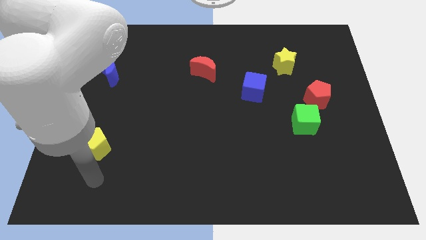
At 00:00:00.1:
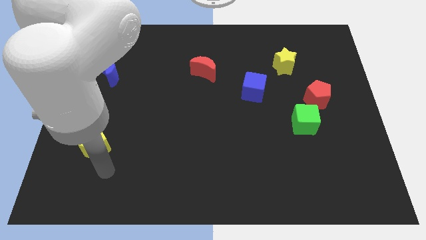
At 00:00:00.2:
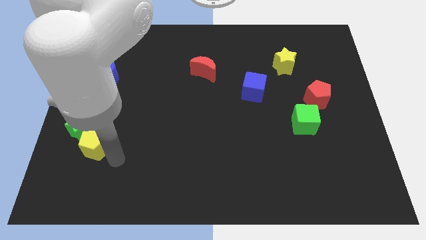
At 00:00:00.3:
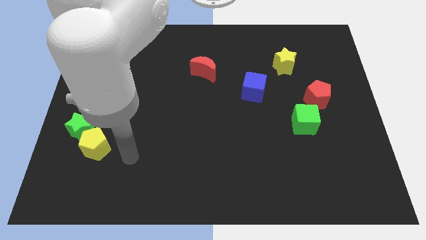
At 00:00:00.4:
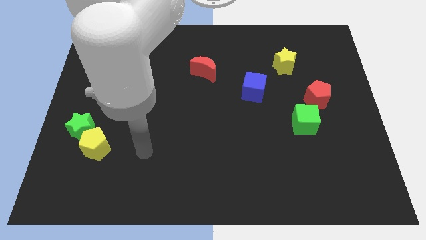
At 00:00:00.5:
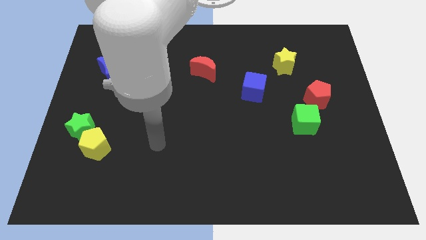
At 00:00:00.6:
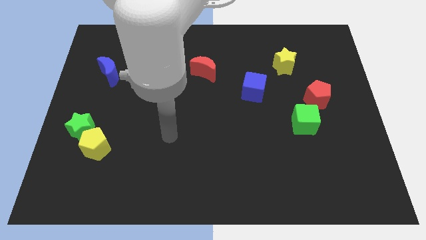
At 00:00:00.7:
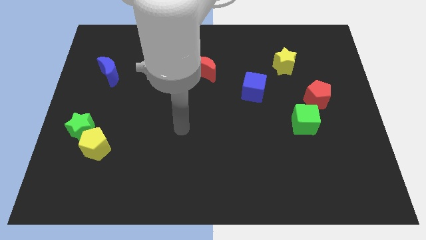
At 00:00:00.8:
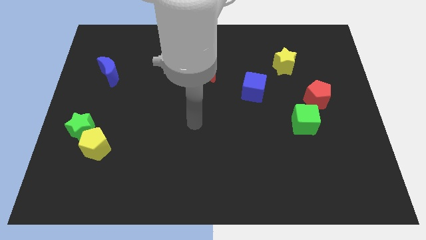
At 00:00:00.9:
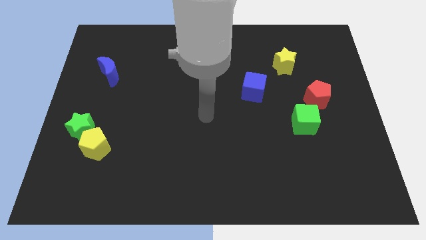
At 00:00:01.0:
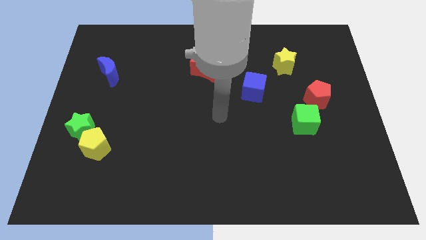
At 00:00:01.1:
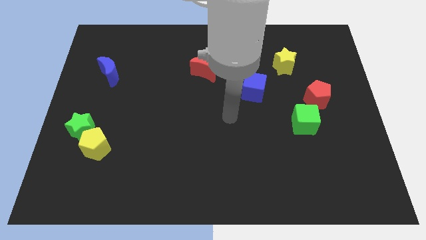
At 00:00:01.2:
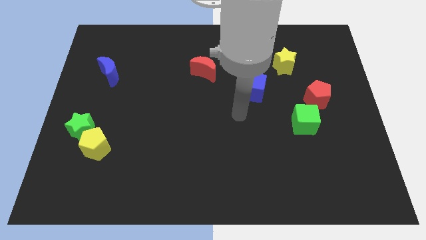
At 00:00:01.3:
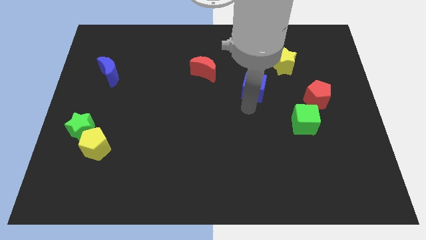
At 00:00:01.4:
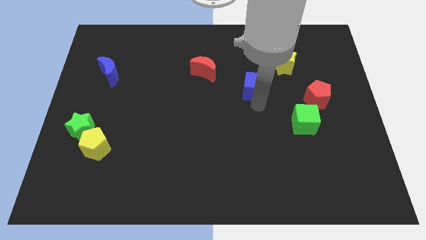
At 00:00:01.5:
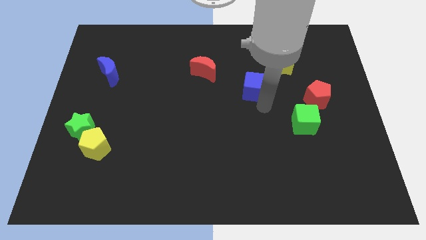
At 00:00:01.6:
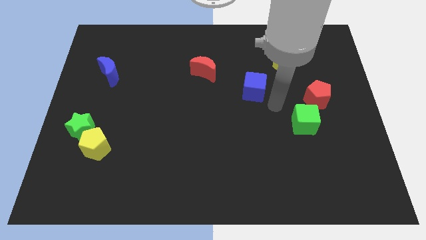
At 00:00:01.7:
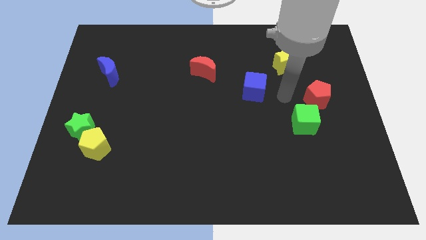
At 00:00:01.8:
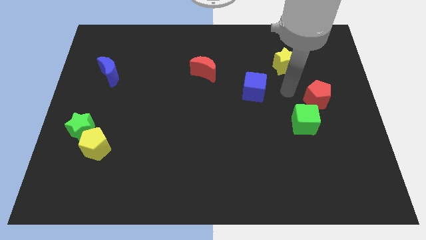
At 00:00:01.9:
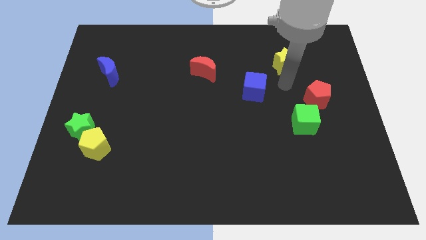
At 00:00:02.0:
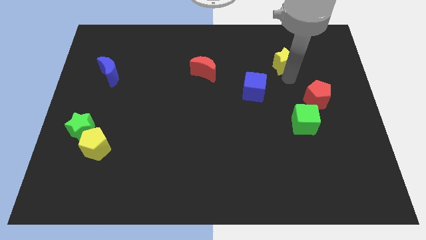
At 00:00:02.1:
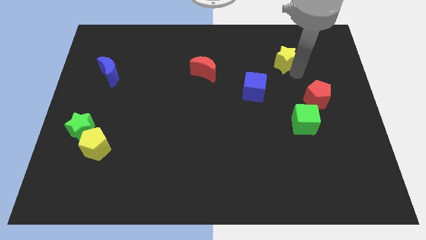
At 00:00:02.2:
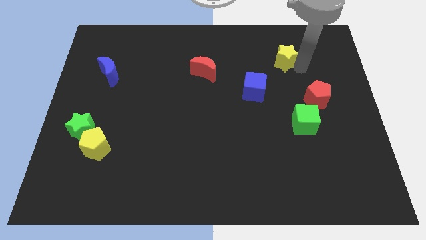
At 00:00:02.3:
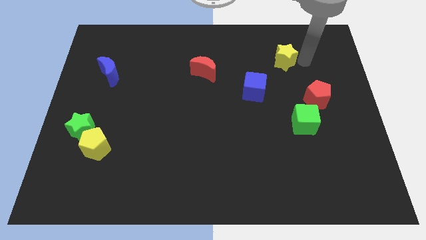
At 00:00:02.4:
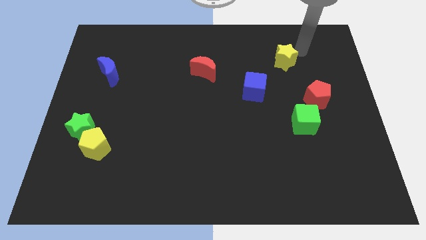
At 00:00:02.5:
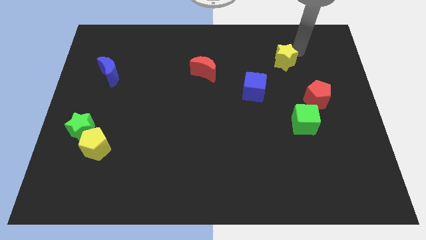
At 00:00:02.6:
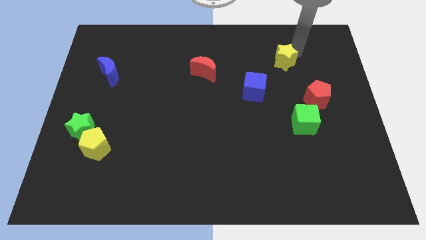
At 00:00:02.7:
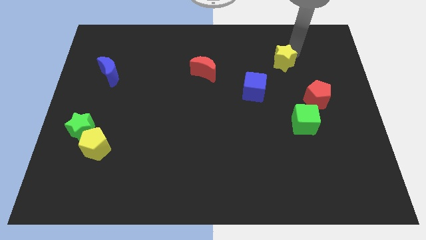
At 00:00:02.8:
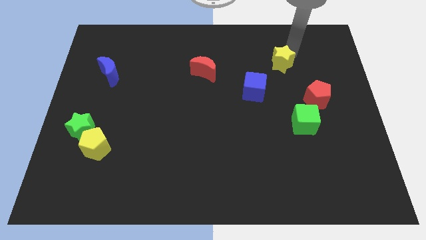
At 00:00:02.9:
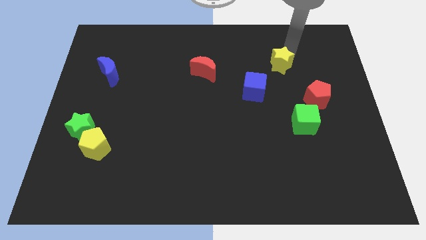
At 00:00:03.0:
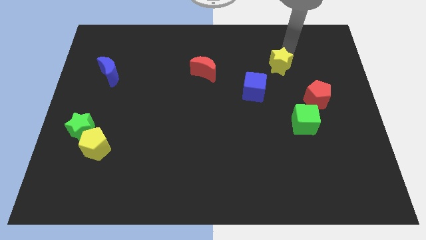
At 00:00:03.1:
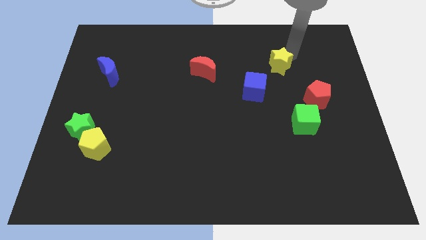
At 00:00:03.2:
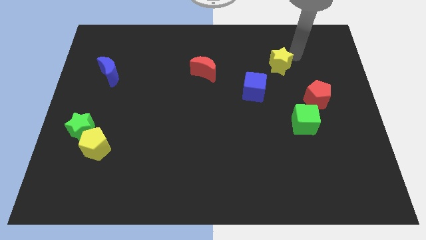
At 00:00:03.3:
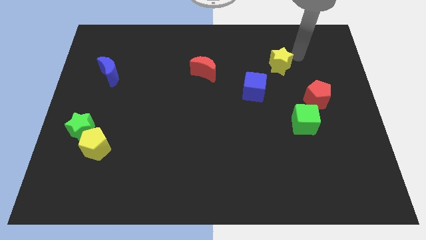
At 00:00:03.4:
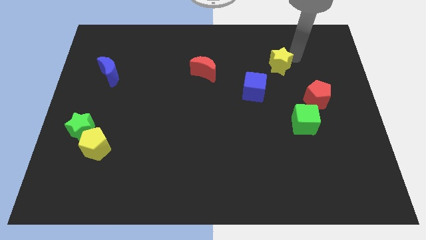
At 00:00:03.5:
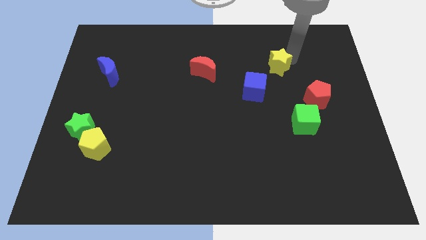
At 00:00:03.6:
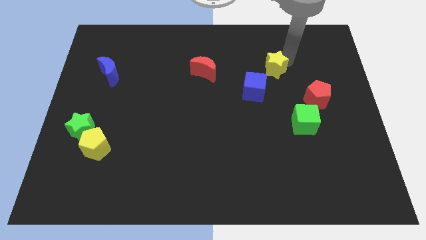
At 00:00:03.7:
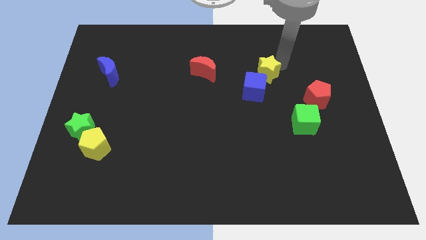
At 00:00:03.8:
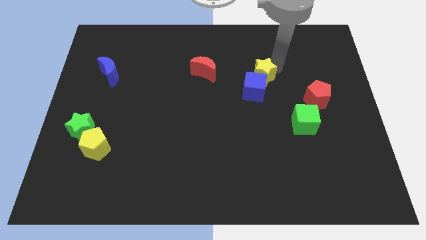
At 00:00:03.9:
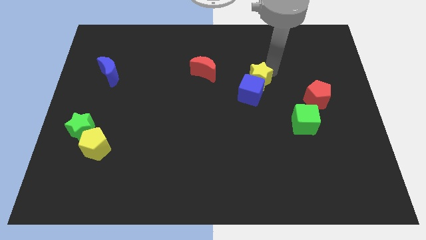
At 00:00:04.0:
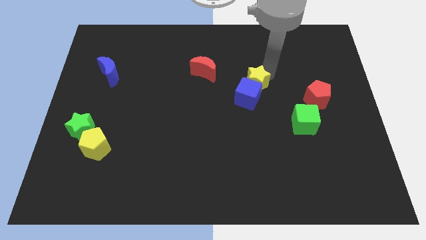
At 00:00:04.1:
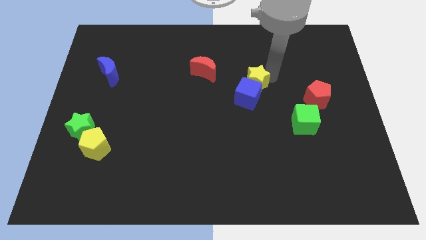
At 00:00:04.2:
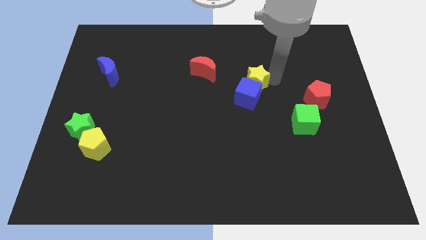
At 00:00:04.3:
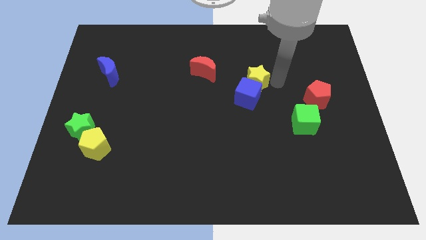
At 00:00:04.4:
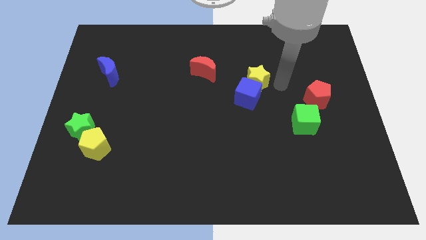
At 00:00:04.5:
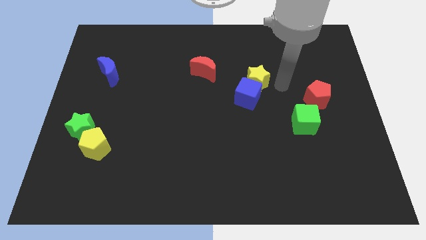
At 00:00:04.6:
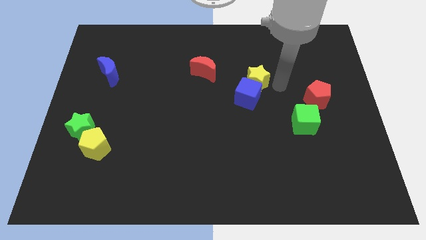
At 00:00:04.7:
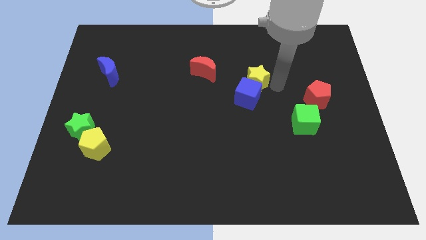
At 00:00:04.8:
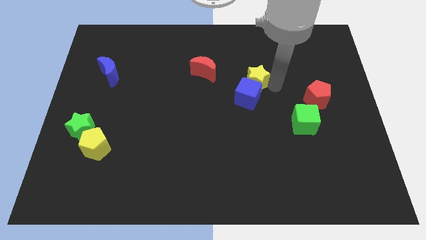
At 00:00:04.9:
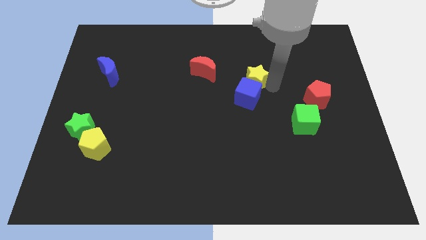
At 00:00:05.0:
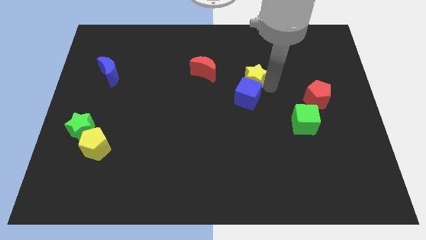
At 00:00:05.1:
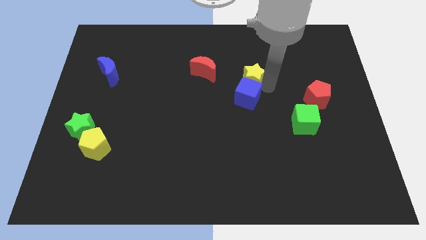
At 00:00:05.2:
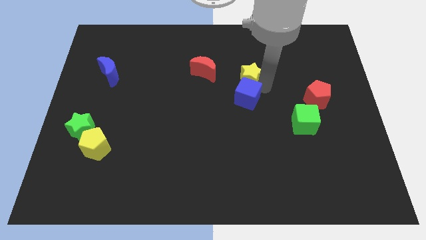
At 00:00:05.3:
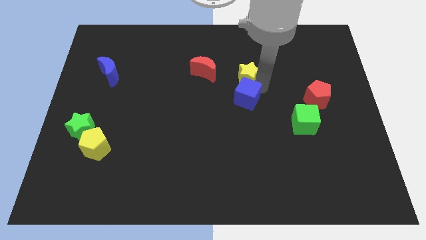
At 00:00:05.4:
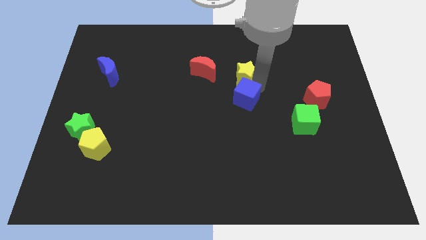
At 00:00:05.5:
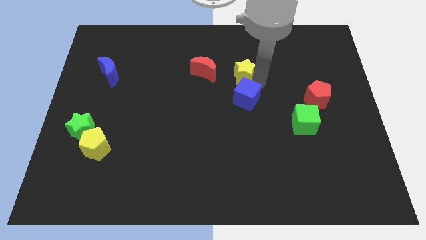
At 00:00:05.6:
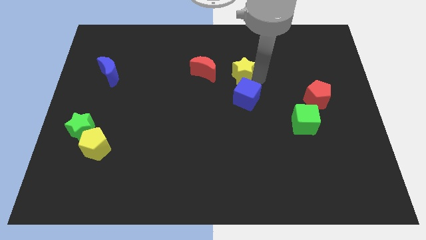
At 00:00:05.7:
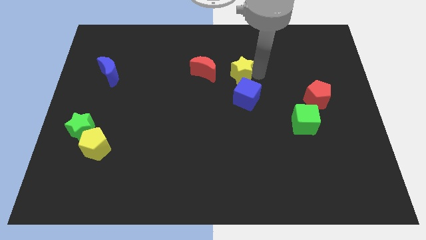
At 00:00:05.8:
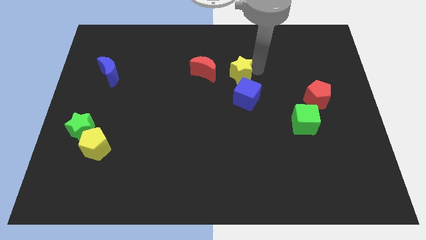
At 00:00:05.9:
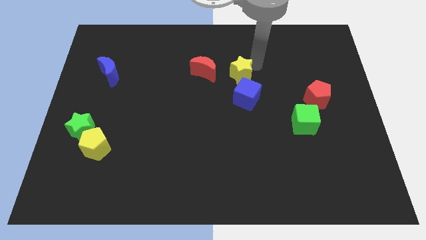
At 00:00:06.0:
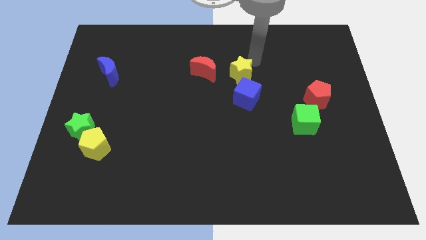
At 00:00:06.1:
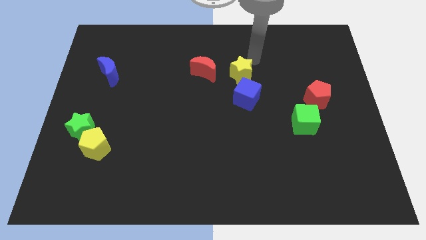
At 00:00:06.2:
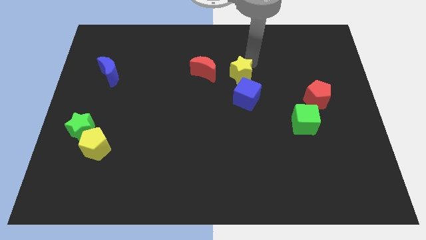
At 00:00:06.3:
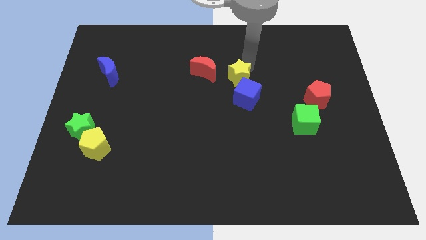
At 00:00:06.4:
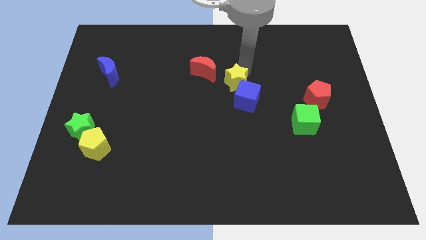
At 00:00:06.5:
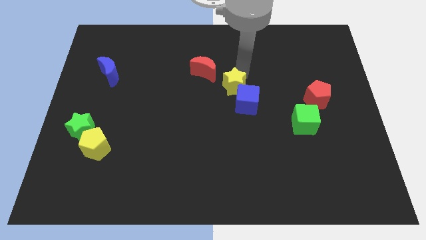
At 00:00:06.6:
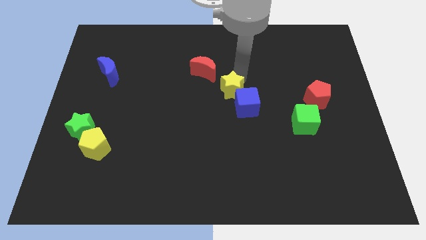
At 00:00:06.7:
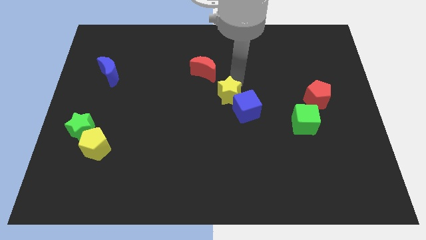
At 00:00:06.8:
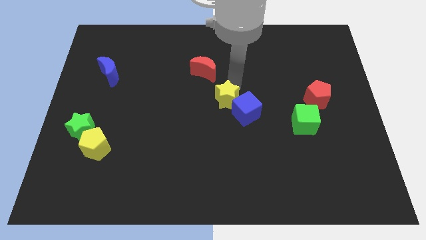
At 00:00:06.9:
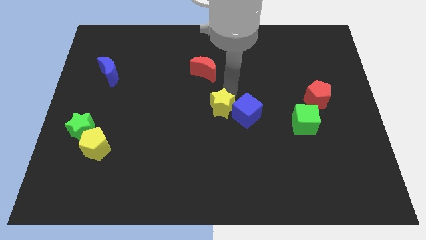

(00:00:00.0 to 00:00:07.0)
slide the yellow star downwards and then to the left

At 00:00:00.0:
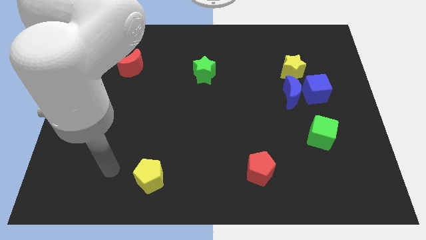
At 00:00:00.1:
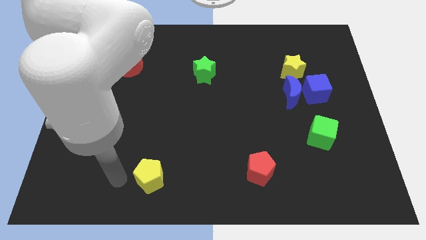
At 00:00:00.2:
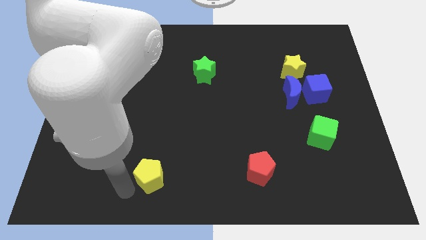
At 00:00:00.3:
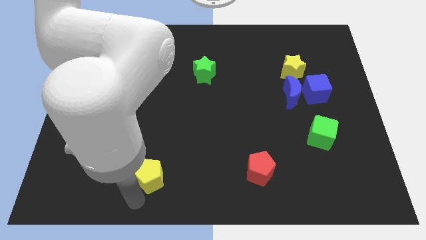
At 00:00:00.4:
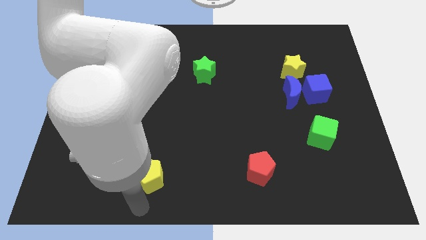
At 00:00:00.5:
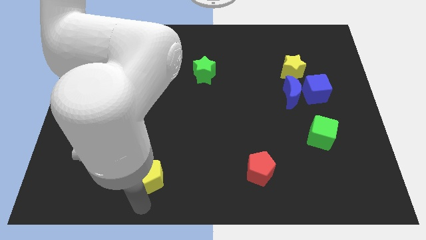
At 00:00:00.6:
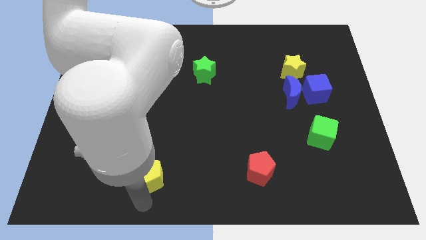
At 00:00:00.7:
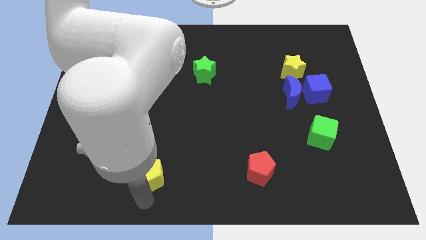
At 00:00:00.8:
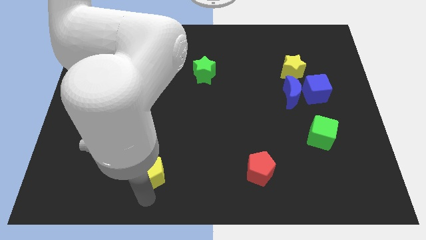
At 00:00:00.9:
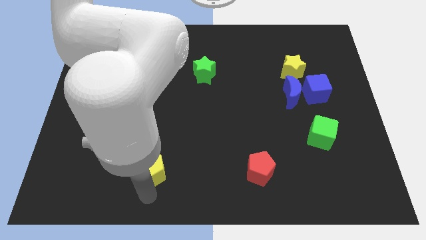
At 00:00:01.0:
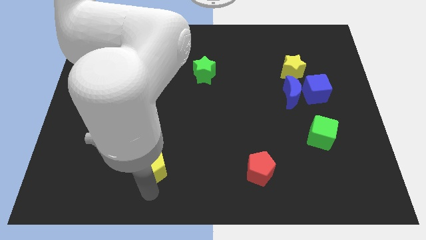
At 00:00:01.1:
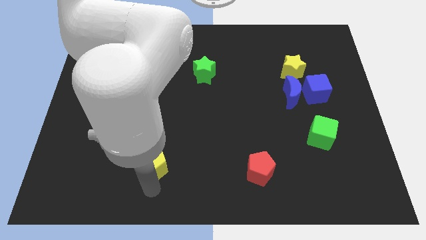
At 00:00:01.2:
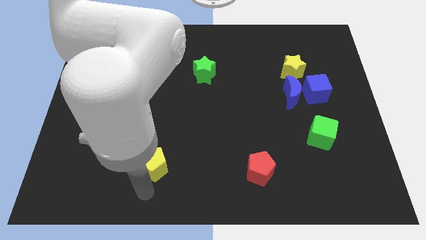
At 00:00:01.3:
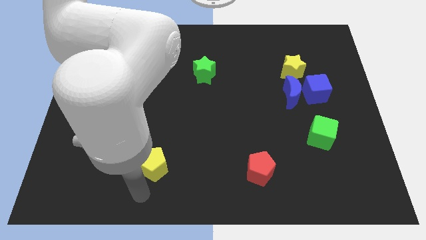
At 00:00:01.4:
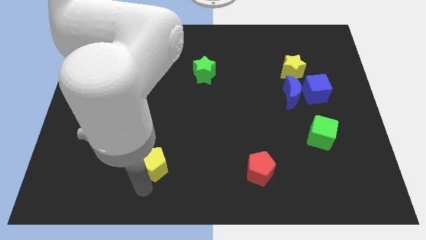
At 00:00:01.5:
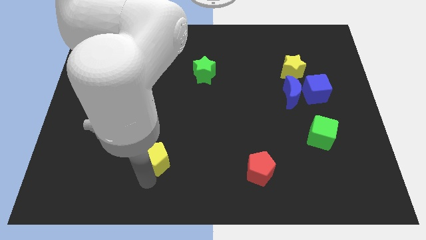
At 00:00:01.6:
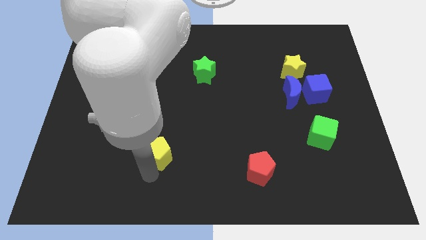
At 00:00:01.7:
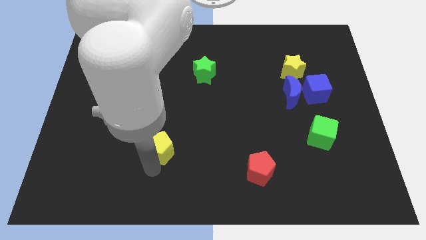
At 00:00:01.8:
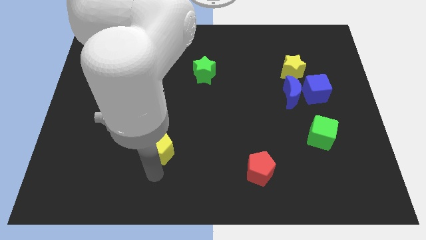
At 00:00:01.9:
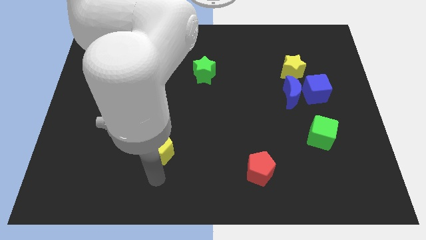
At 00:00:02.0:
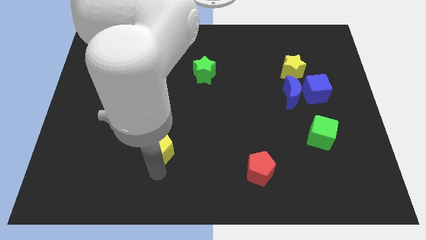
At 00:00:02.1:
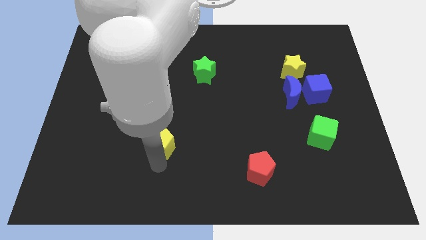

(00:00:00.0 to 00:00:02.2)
push the yellow pentagon upwards a little
